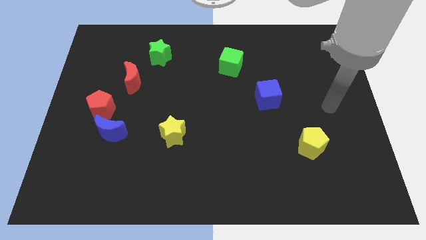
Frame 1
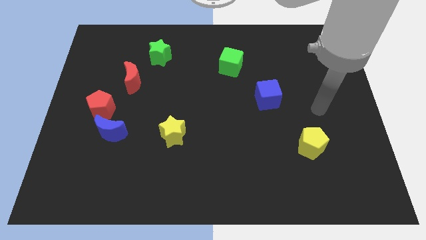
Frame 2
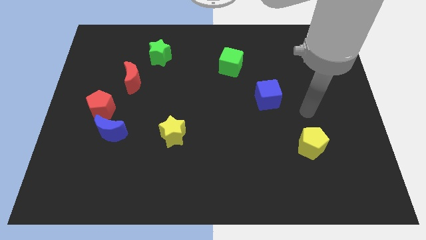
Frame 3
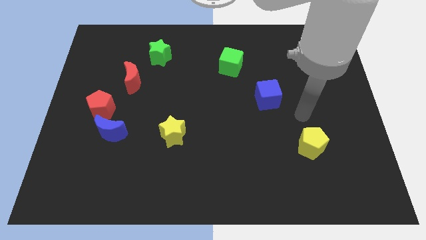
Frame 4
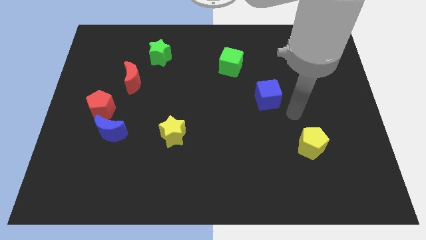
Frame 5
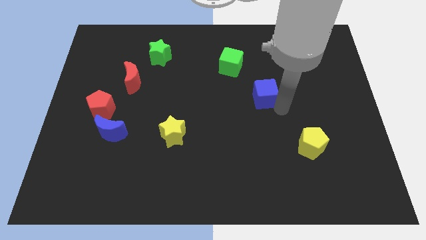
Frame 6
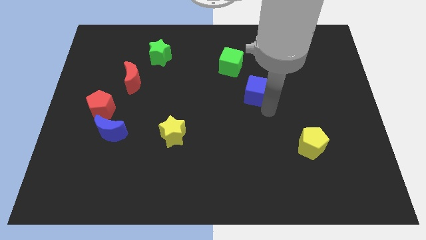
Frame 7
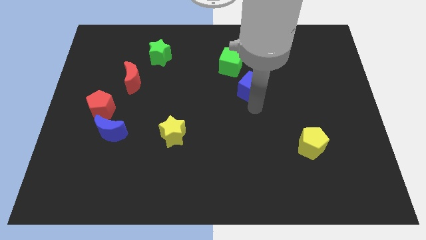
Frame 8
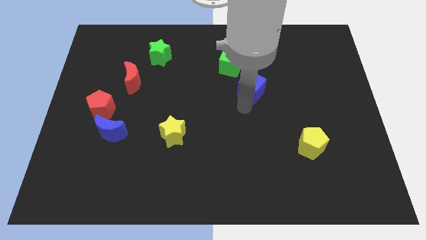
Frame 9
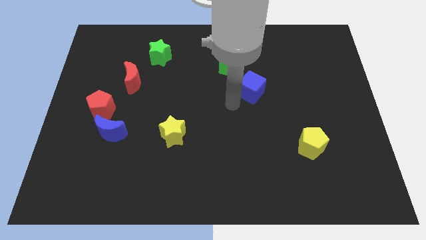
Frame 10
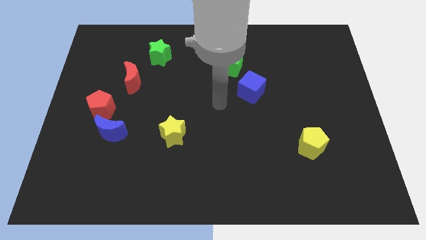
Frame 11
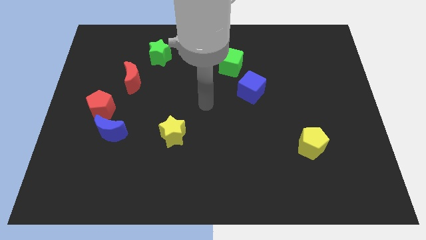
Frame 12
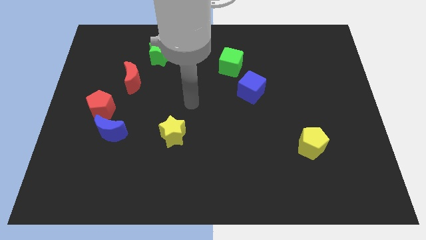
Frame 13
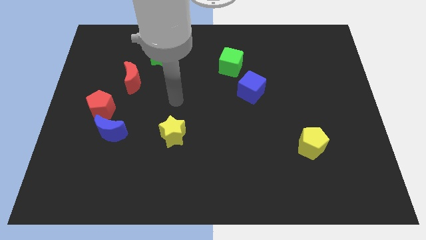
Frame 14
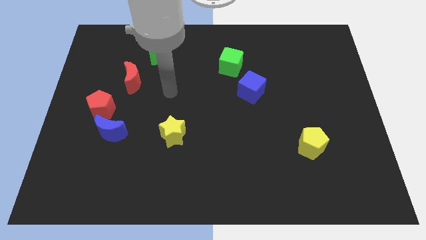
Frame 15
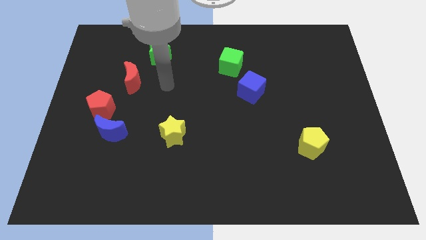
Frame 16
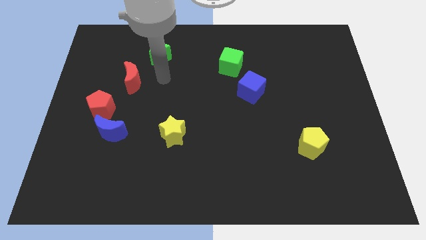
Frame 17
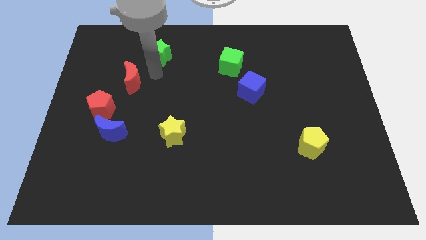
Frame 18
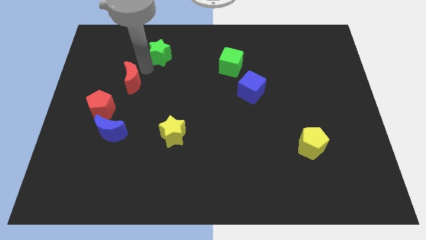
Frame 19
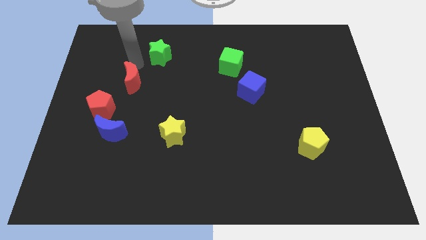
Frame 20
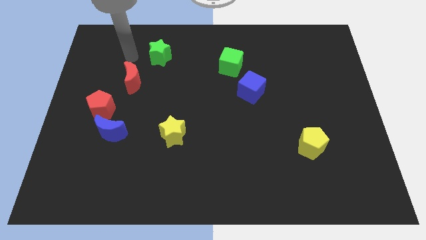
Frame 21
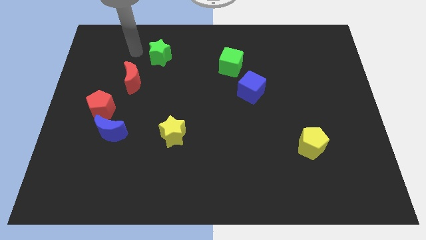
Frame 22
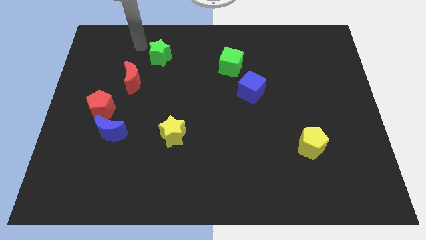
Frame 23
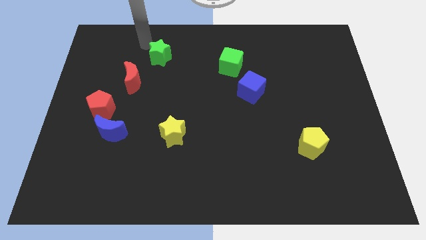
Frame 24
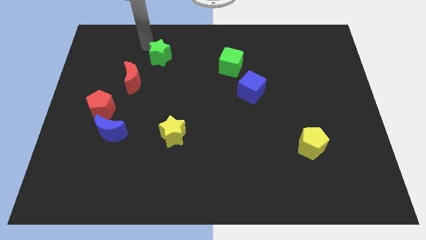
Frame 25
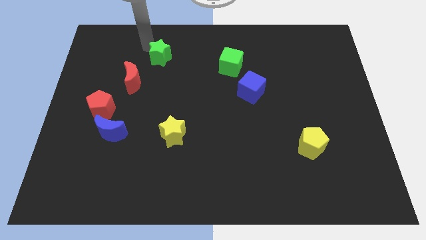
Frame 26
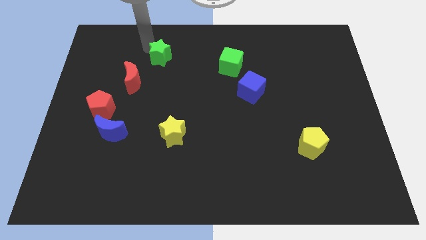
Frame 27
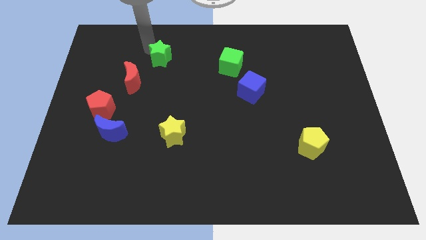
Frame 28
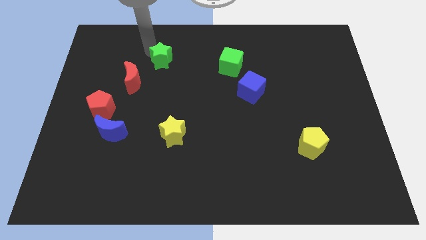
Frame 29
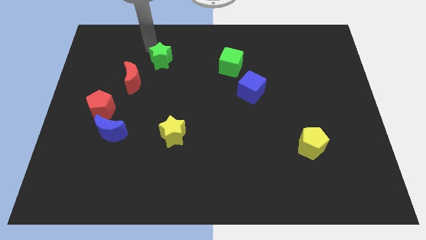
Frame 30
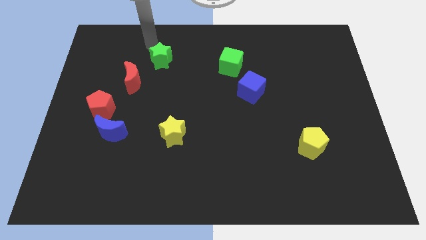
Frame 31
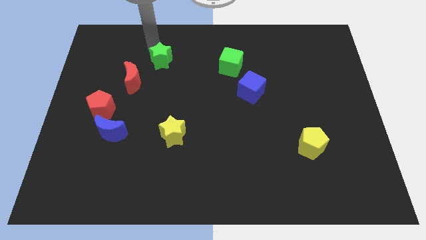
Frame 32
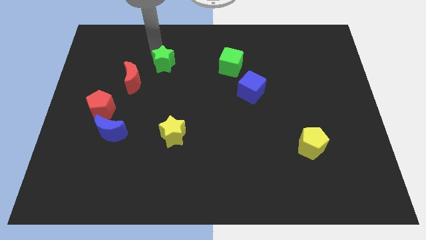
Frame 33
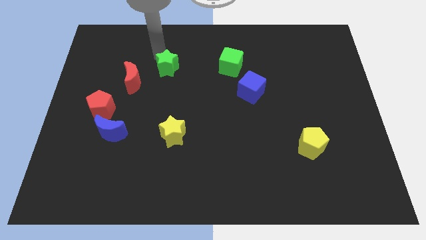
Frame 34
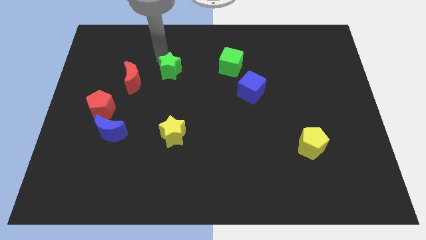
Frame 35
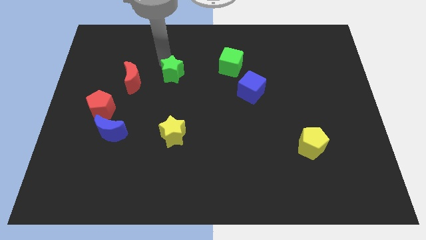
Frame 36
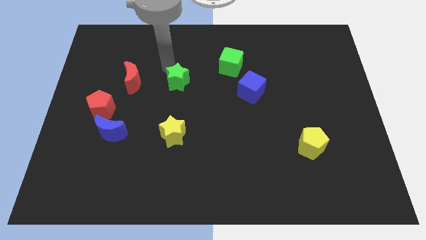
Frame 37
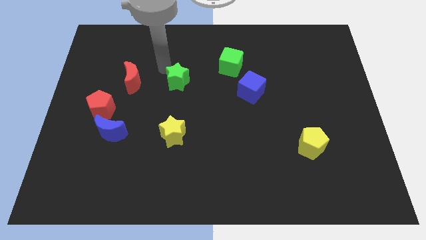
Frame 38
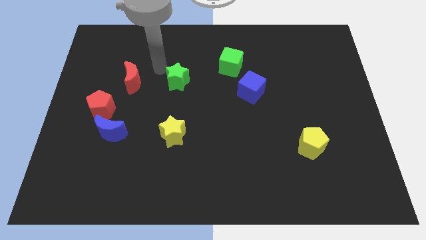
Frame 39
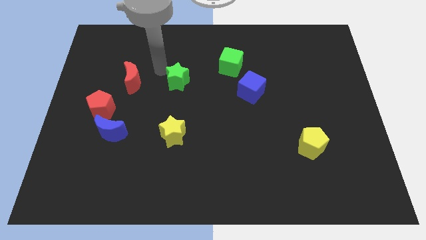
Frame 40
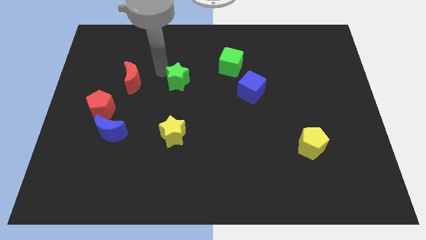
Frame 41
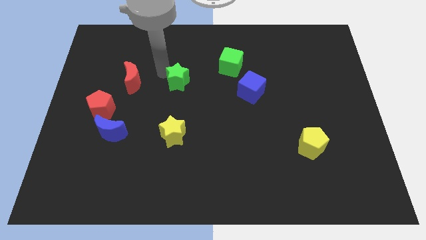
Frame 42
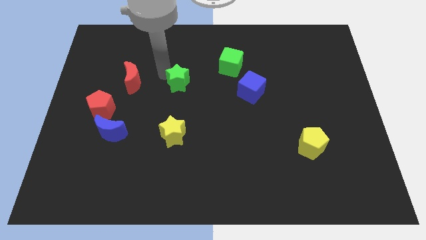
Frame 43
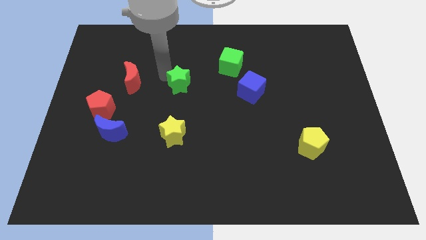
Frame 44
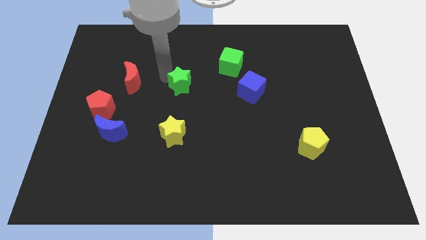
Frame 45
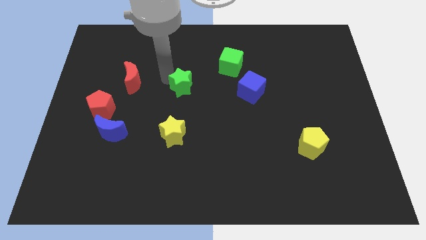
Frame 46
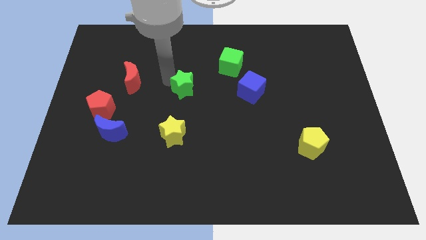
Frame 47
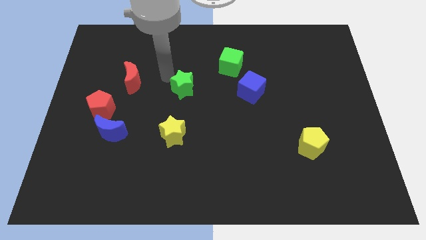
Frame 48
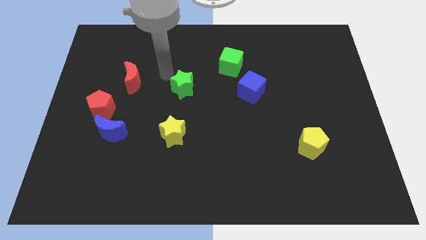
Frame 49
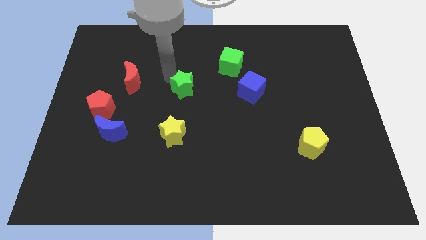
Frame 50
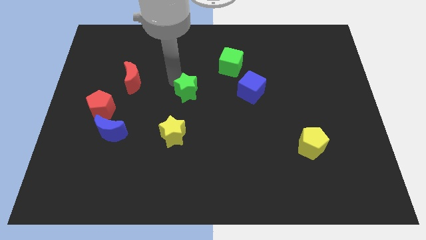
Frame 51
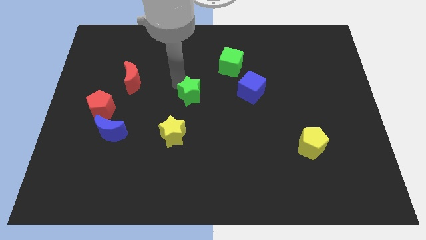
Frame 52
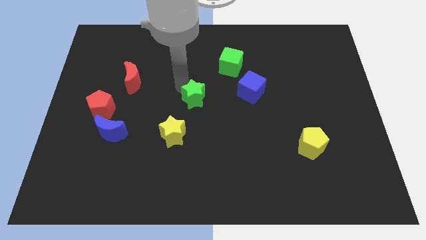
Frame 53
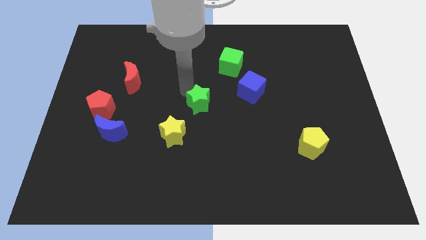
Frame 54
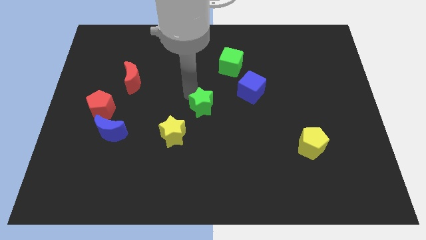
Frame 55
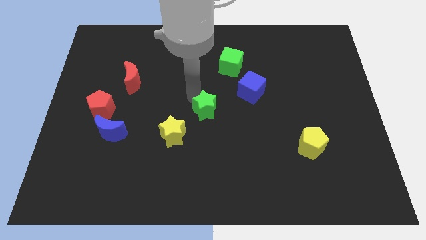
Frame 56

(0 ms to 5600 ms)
move the green star downwards and then right

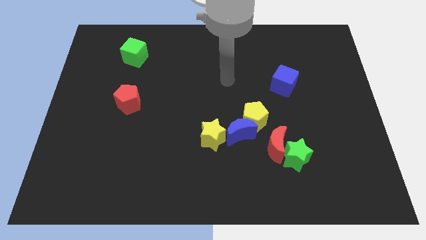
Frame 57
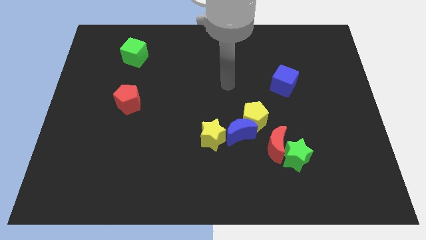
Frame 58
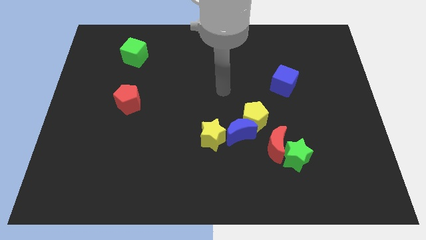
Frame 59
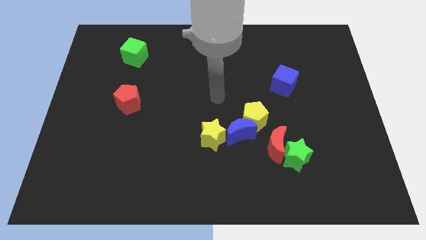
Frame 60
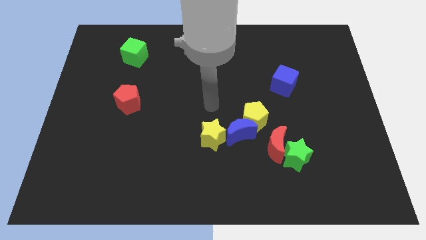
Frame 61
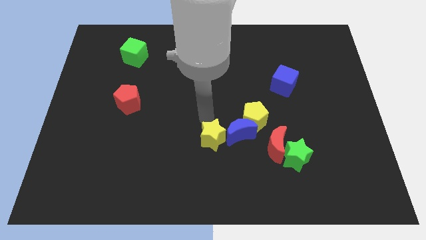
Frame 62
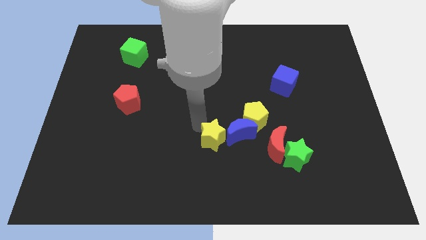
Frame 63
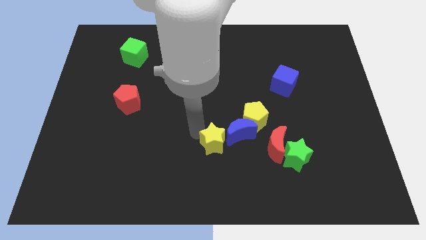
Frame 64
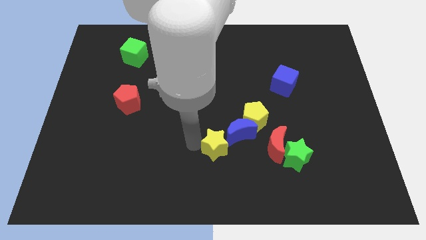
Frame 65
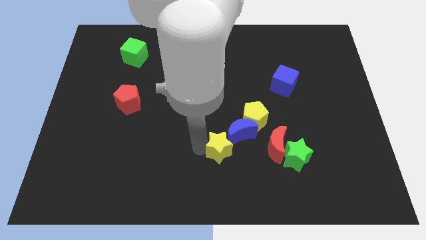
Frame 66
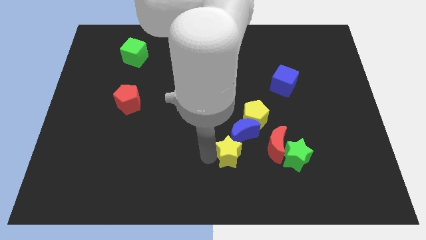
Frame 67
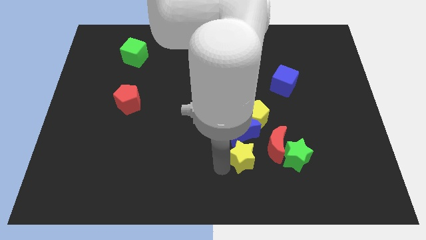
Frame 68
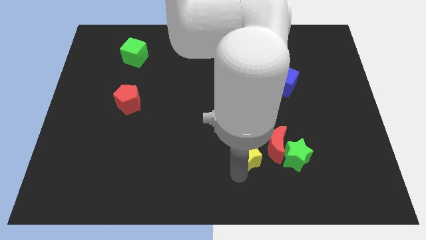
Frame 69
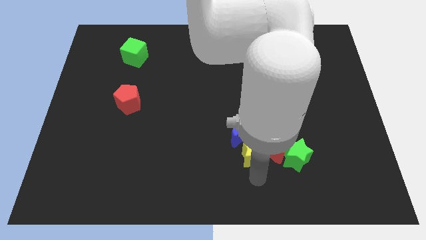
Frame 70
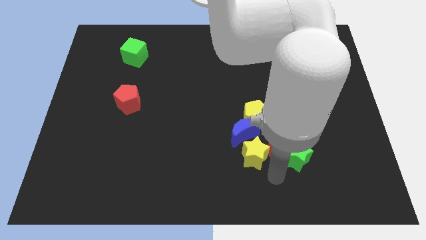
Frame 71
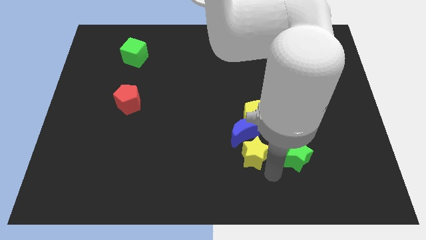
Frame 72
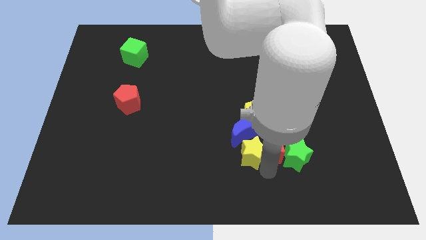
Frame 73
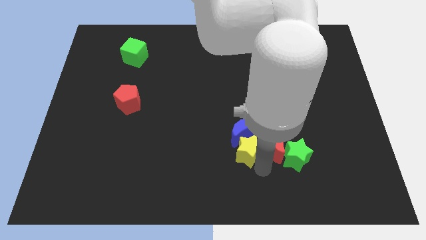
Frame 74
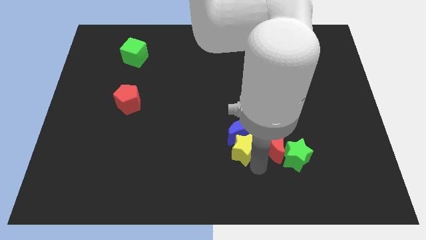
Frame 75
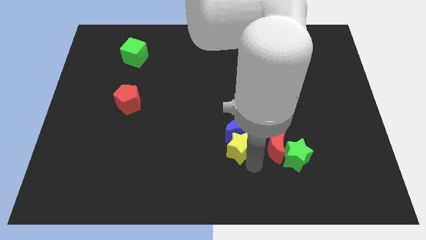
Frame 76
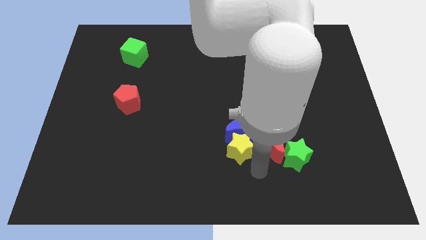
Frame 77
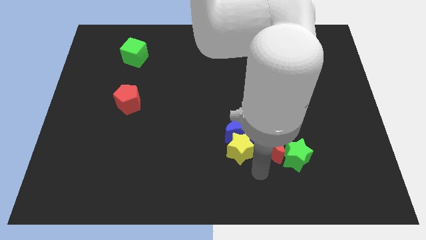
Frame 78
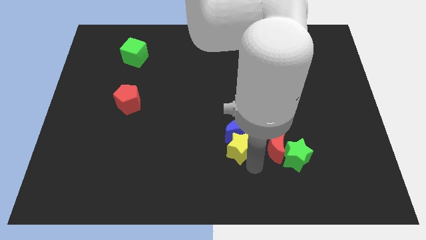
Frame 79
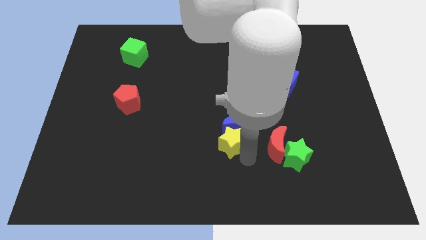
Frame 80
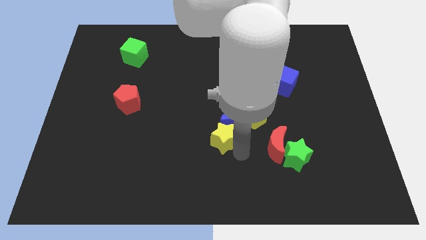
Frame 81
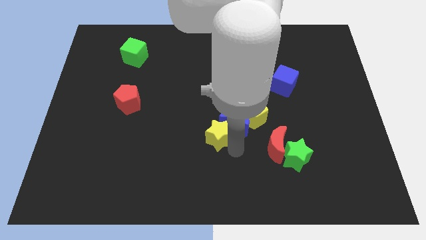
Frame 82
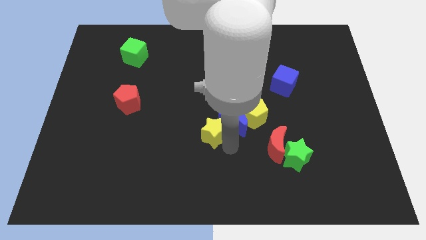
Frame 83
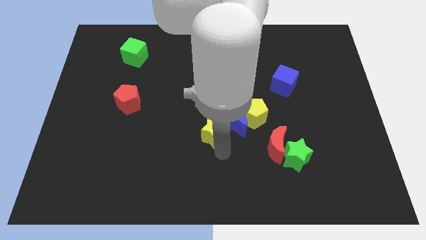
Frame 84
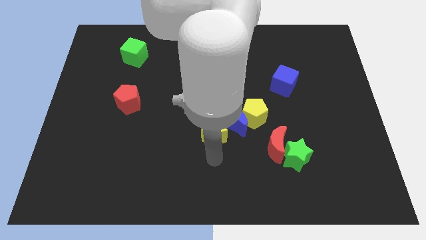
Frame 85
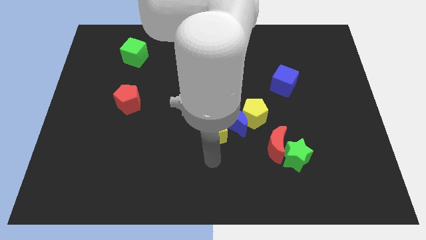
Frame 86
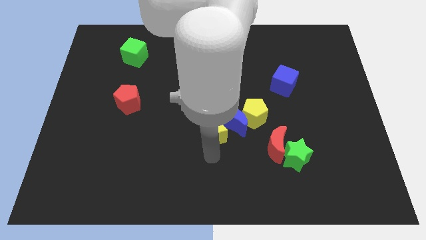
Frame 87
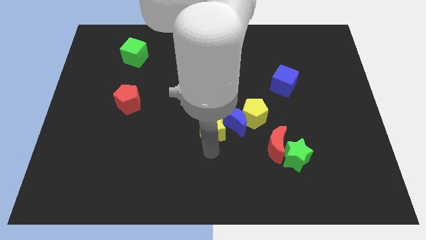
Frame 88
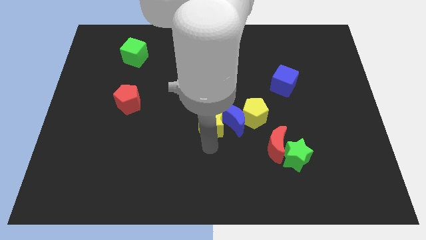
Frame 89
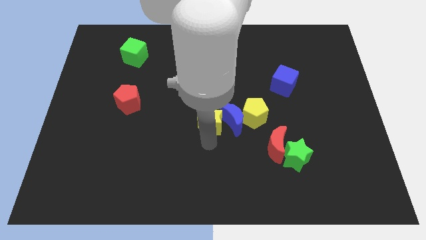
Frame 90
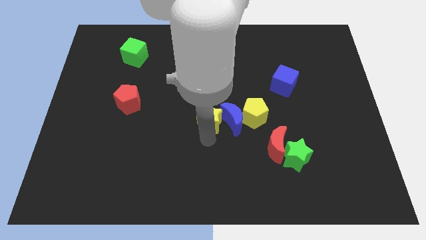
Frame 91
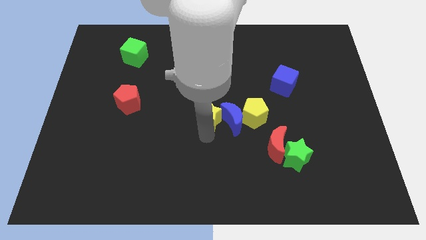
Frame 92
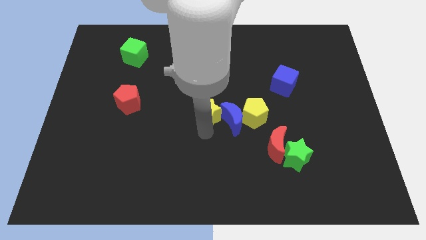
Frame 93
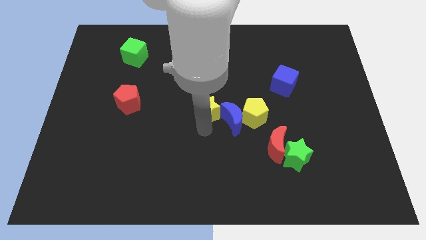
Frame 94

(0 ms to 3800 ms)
slide the yellow star somewhat up
